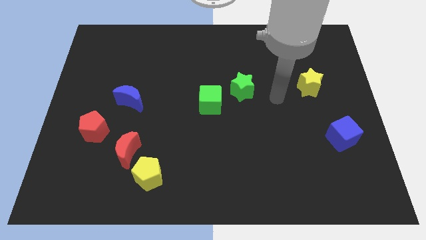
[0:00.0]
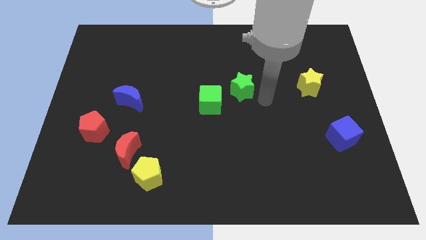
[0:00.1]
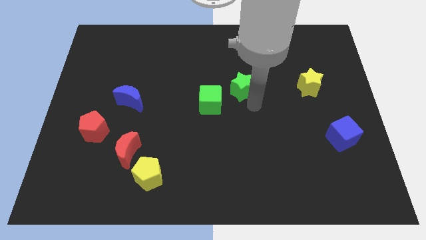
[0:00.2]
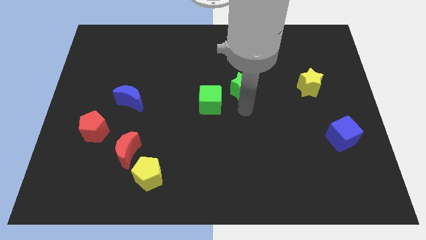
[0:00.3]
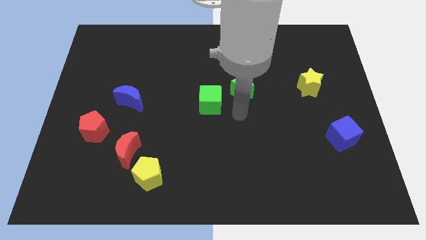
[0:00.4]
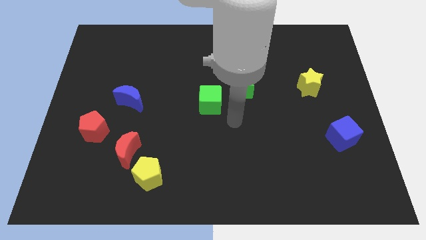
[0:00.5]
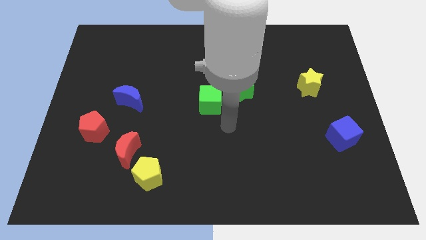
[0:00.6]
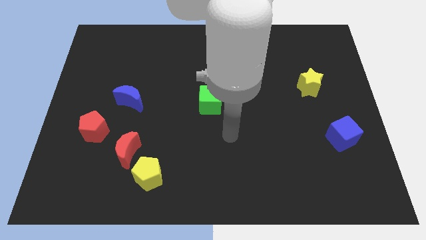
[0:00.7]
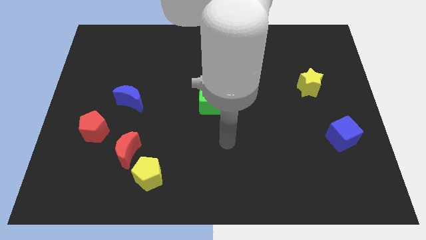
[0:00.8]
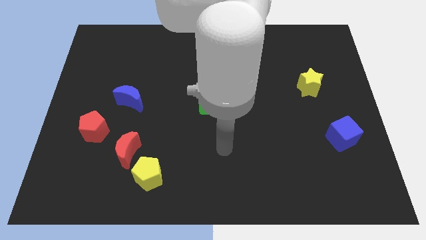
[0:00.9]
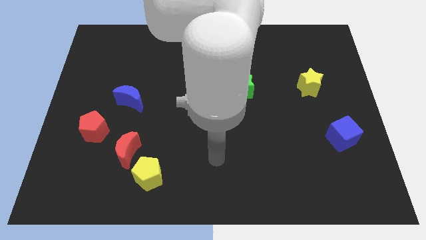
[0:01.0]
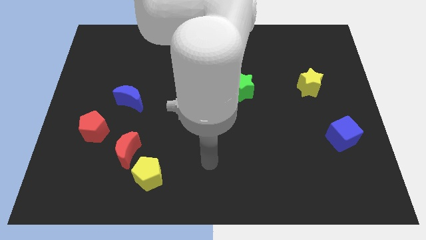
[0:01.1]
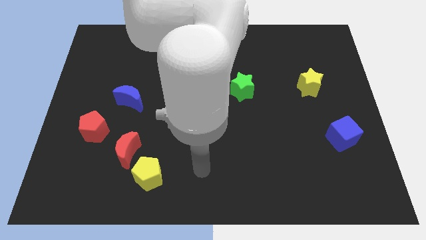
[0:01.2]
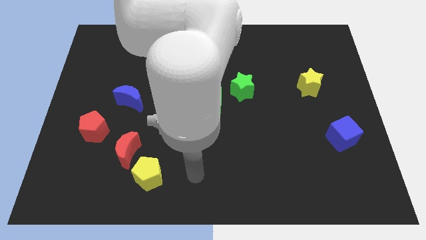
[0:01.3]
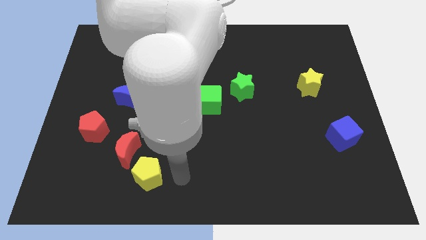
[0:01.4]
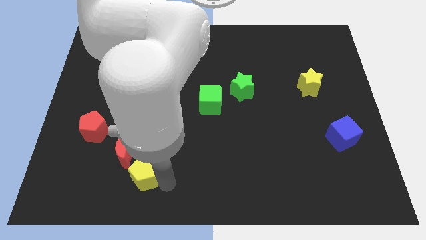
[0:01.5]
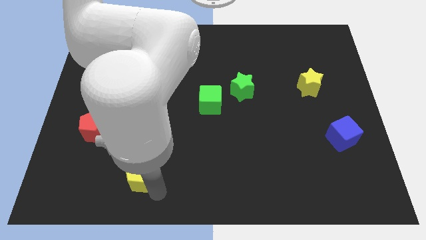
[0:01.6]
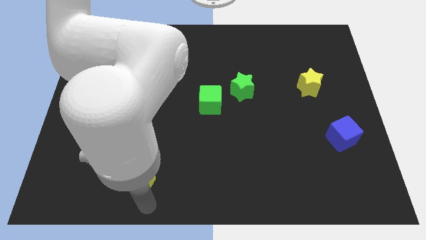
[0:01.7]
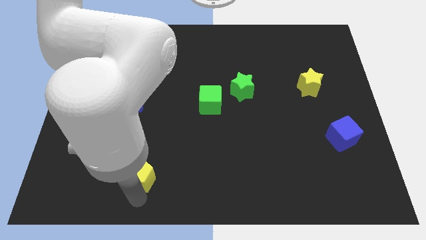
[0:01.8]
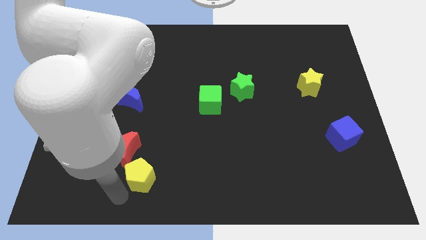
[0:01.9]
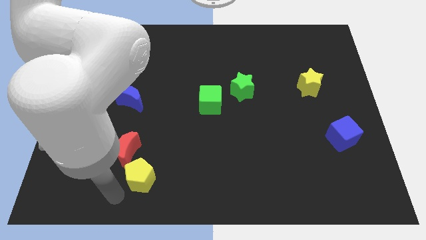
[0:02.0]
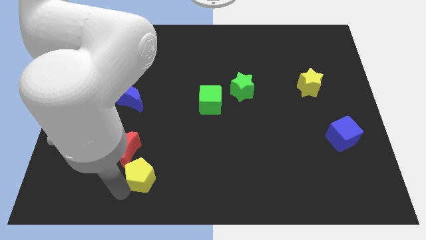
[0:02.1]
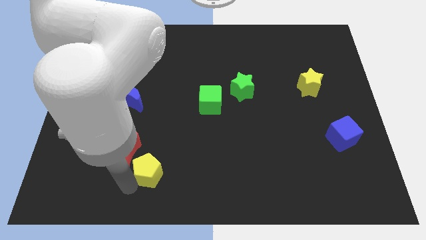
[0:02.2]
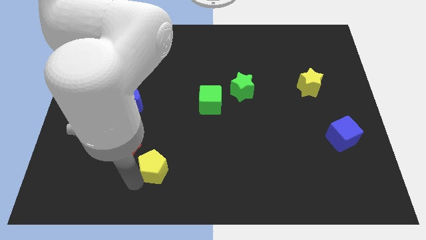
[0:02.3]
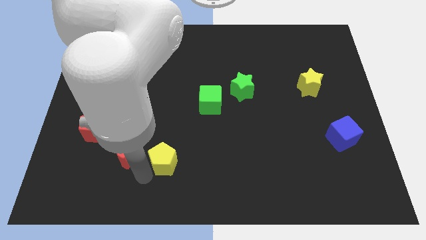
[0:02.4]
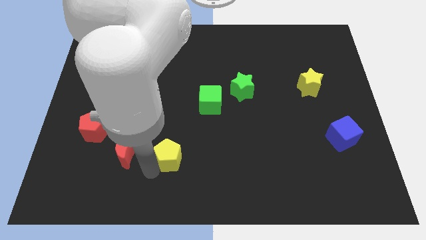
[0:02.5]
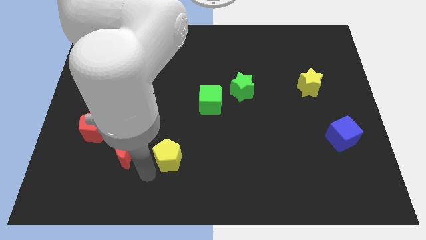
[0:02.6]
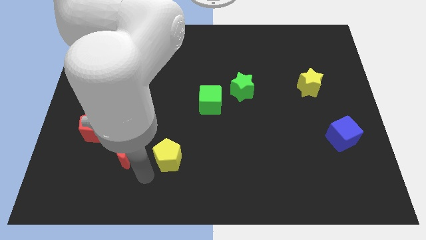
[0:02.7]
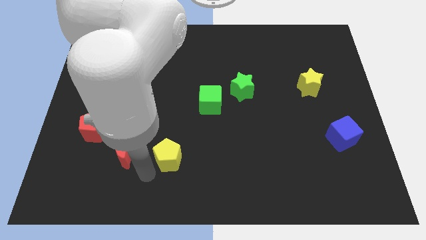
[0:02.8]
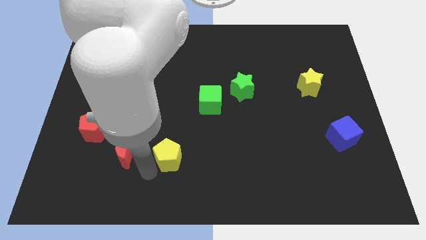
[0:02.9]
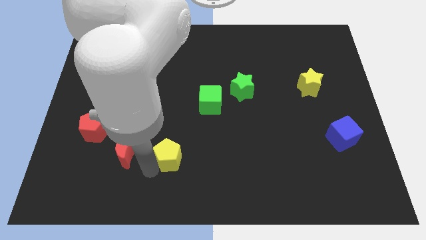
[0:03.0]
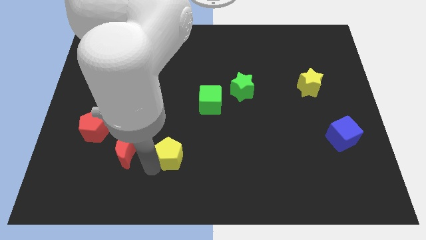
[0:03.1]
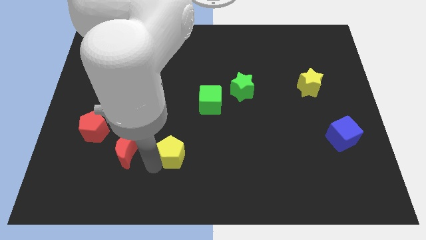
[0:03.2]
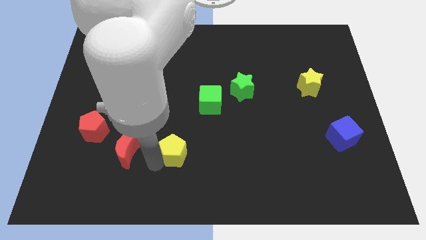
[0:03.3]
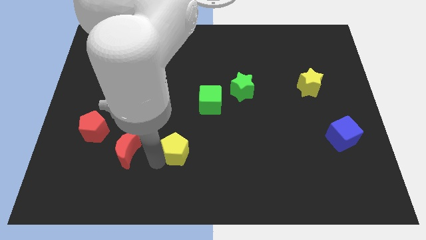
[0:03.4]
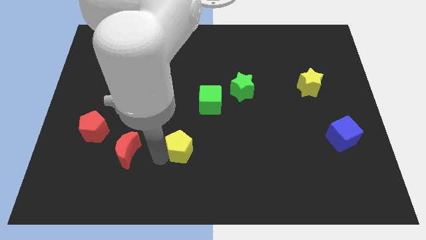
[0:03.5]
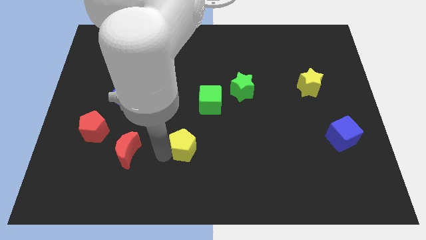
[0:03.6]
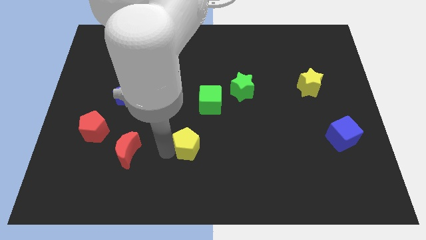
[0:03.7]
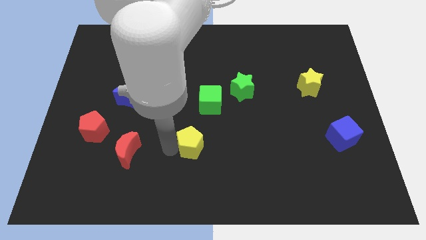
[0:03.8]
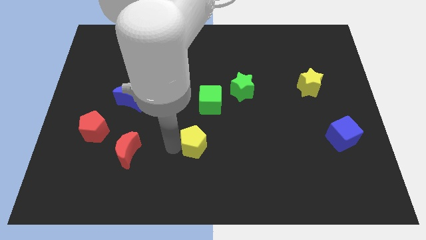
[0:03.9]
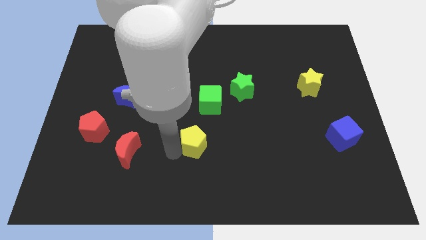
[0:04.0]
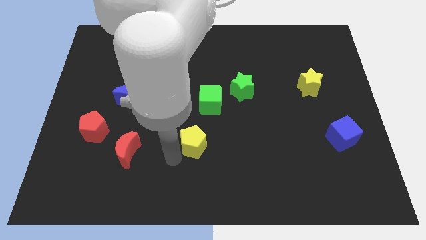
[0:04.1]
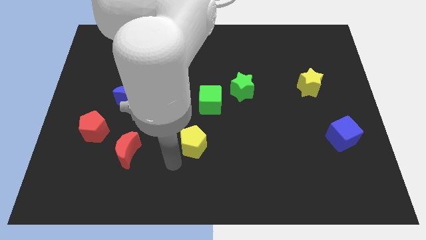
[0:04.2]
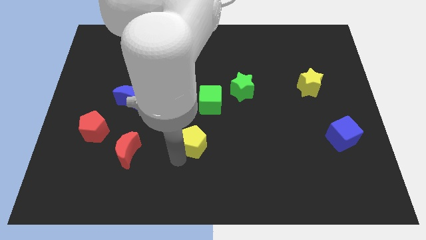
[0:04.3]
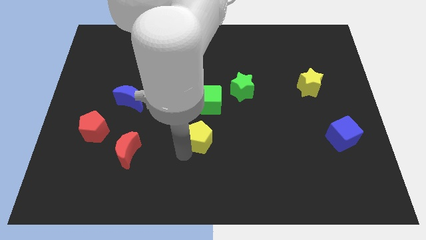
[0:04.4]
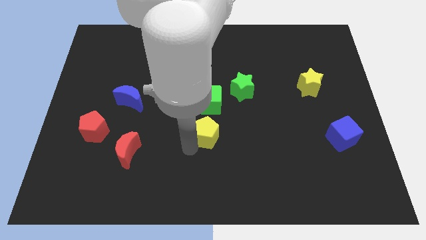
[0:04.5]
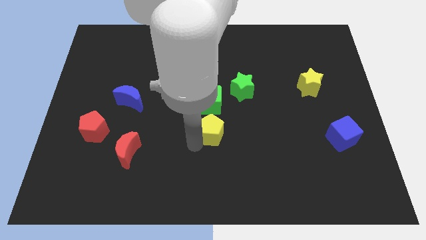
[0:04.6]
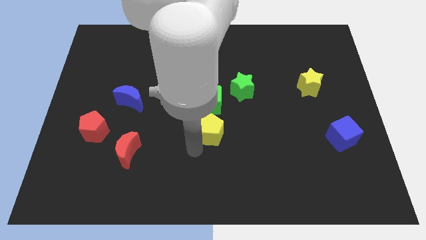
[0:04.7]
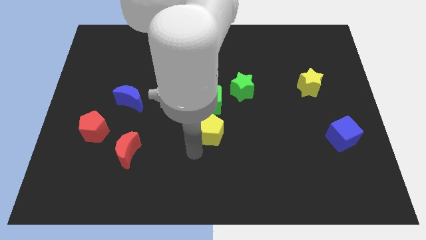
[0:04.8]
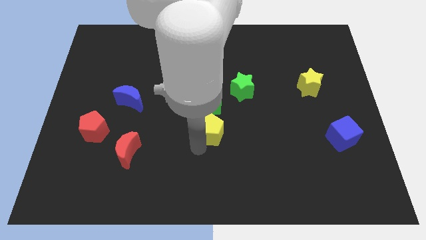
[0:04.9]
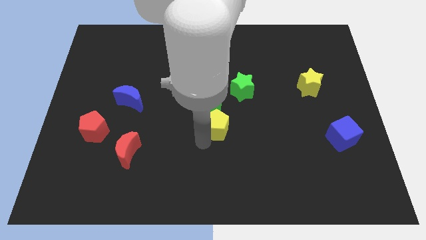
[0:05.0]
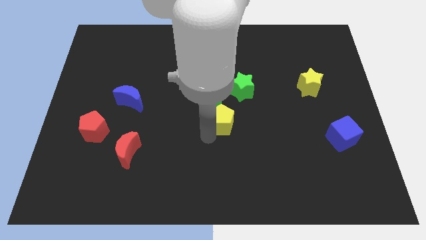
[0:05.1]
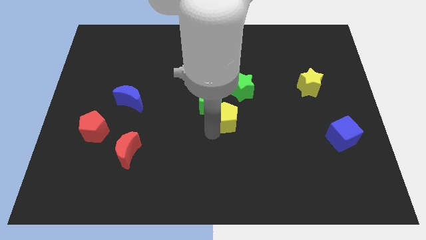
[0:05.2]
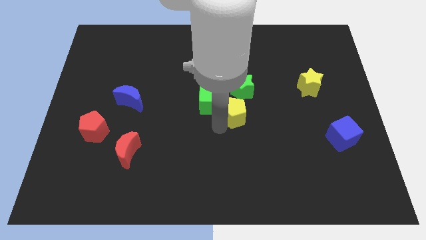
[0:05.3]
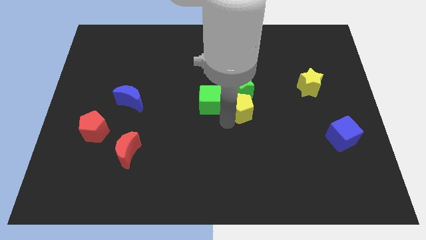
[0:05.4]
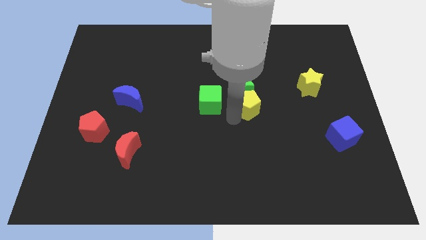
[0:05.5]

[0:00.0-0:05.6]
push the yellow pentagon close to the green star

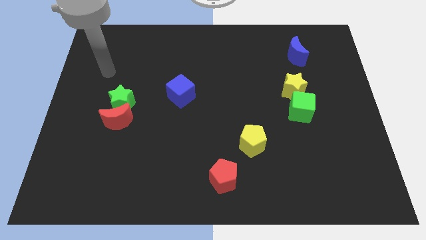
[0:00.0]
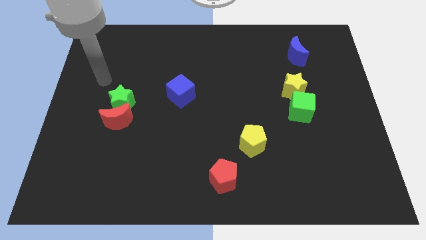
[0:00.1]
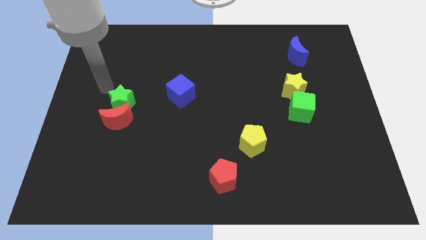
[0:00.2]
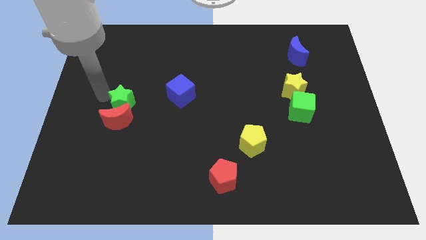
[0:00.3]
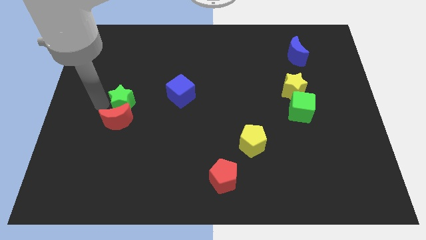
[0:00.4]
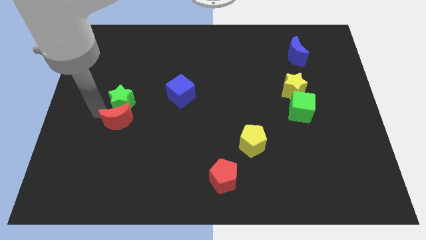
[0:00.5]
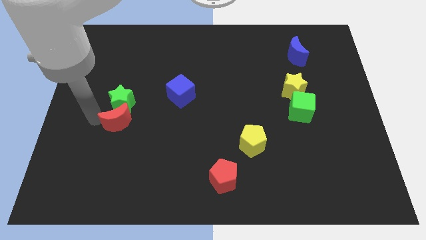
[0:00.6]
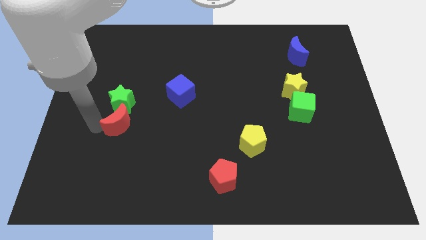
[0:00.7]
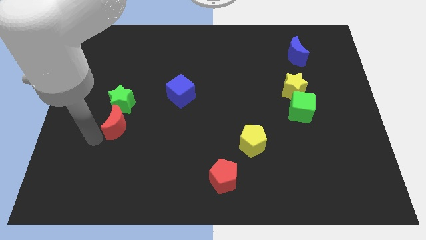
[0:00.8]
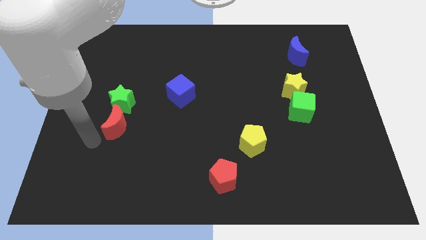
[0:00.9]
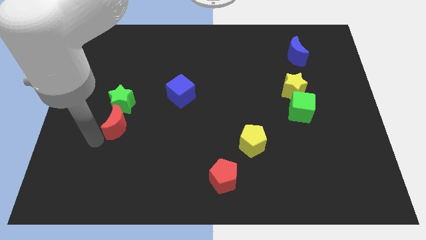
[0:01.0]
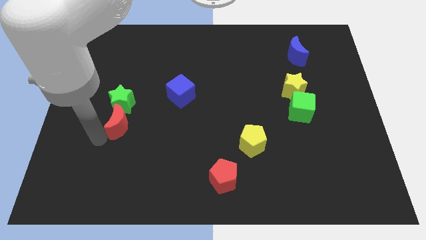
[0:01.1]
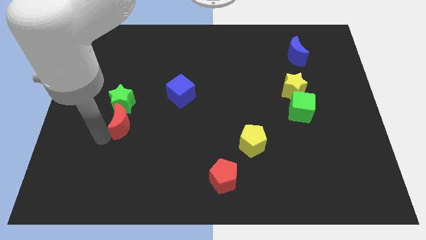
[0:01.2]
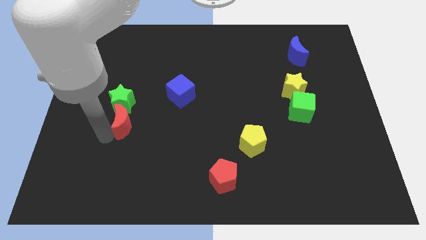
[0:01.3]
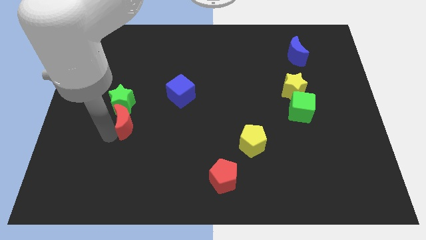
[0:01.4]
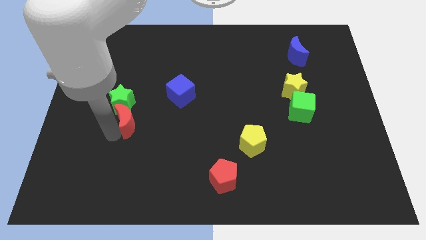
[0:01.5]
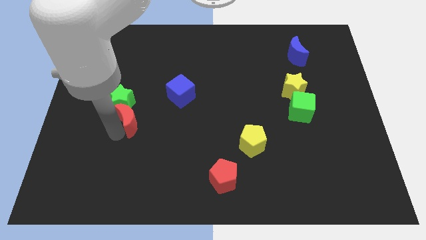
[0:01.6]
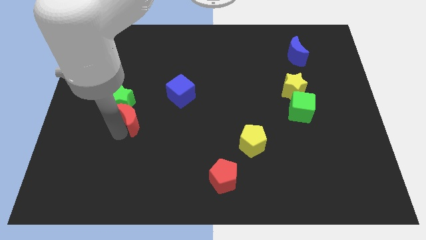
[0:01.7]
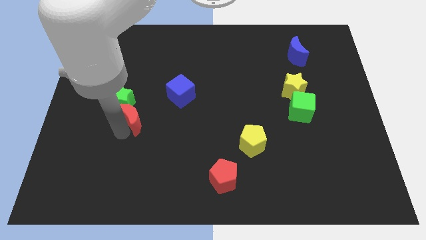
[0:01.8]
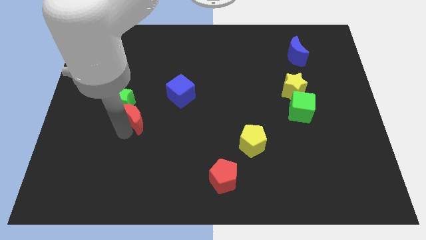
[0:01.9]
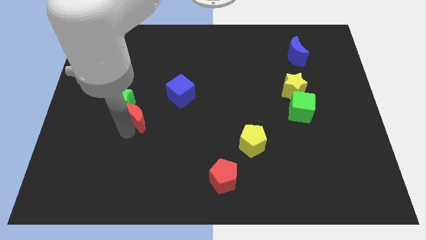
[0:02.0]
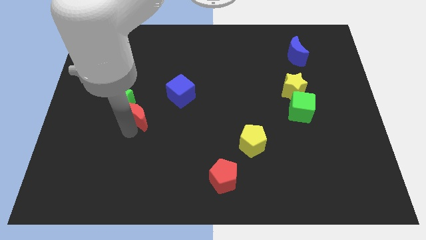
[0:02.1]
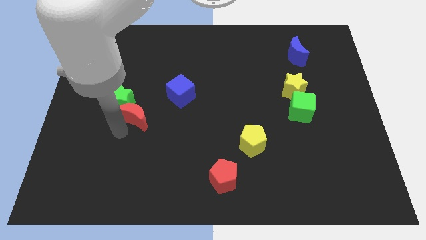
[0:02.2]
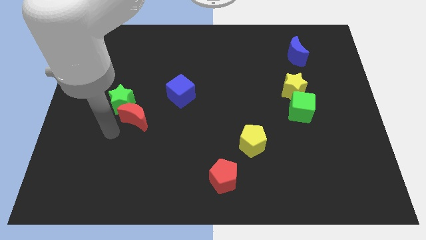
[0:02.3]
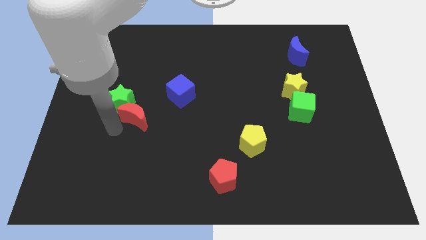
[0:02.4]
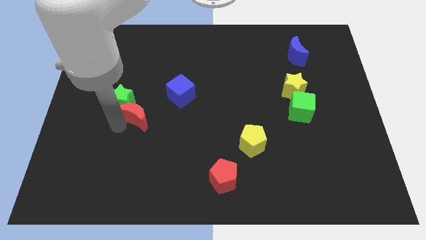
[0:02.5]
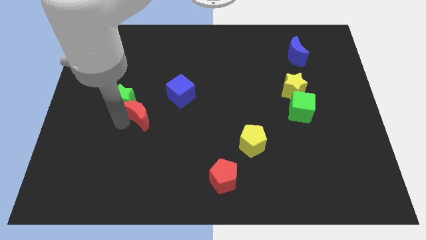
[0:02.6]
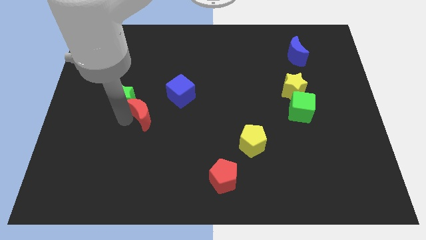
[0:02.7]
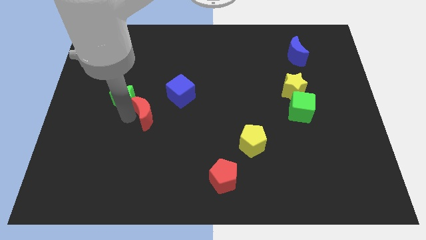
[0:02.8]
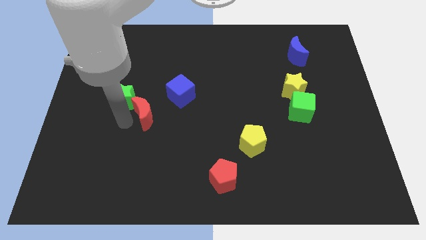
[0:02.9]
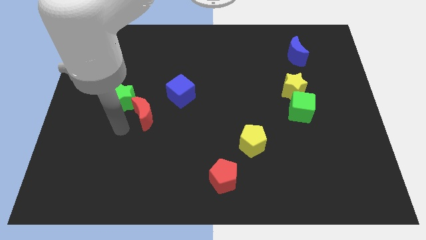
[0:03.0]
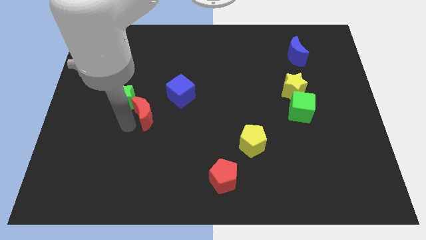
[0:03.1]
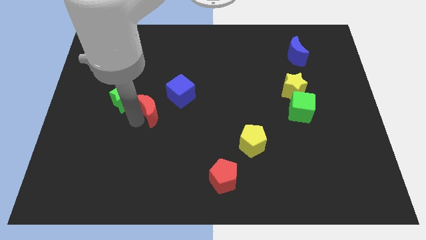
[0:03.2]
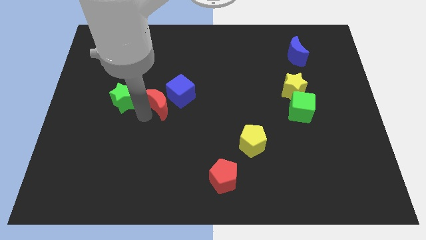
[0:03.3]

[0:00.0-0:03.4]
put the red moon close to the blue cube
